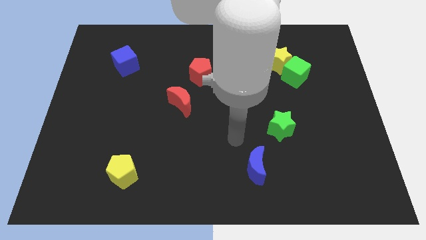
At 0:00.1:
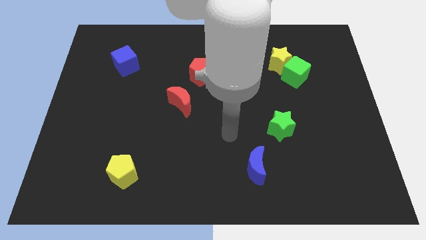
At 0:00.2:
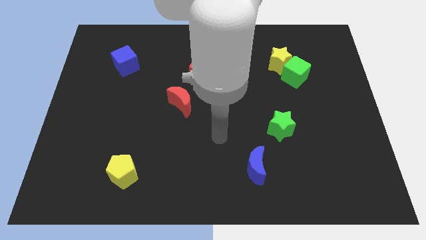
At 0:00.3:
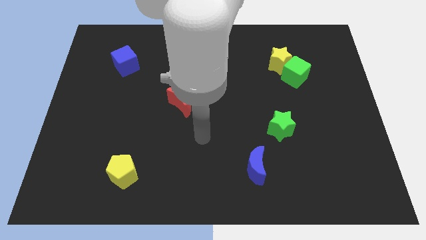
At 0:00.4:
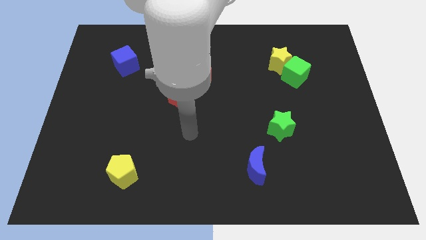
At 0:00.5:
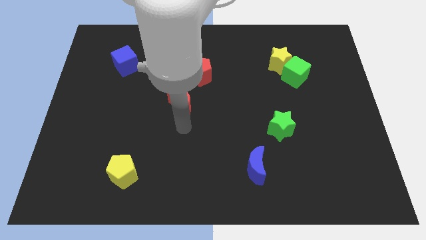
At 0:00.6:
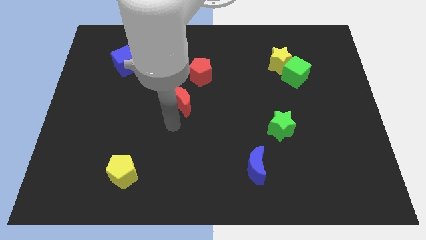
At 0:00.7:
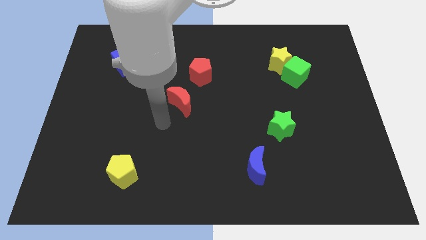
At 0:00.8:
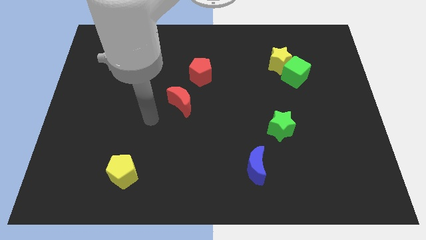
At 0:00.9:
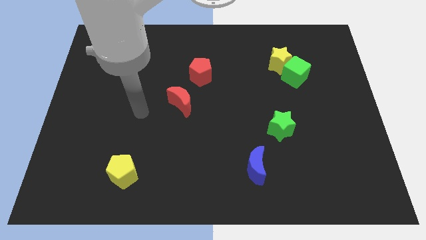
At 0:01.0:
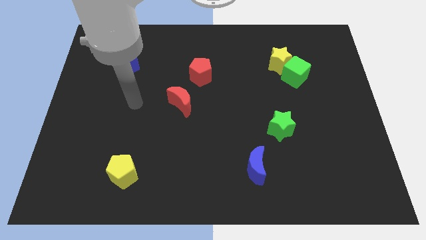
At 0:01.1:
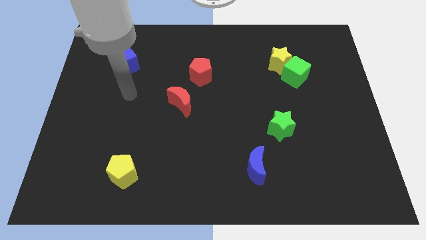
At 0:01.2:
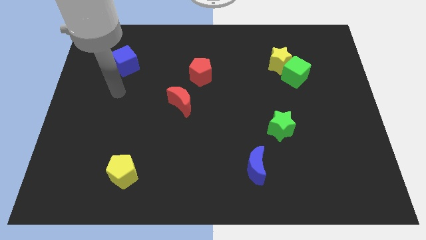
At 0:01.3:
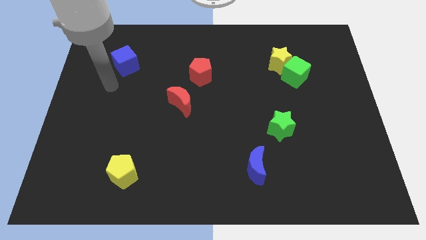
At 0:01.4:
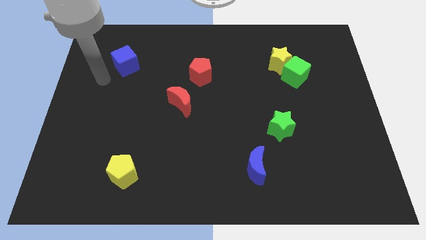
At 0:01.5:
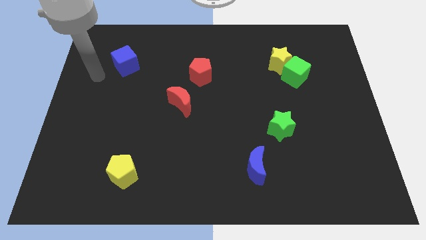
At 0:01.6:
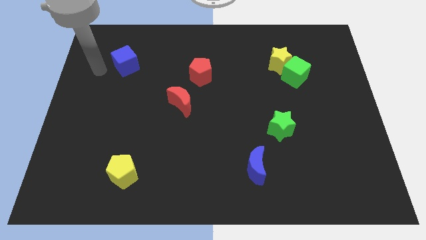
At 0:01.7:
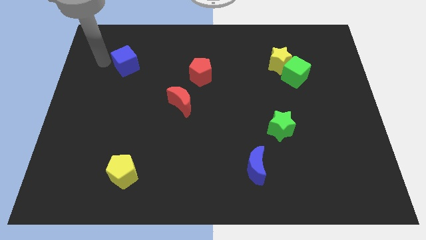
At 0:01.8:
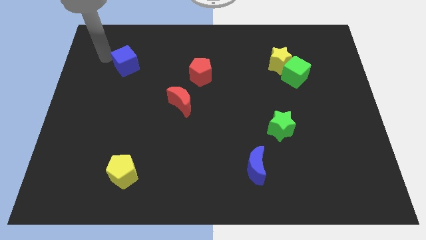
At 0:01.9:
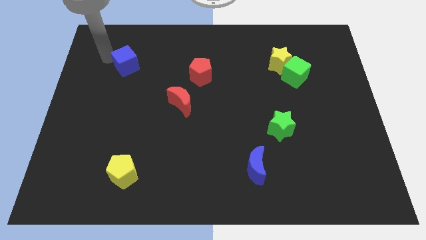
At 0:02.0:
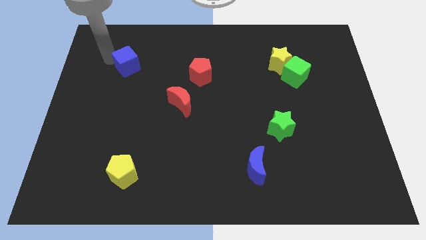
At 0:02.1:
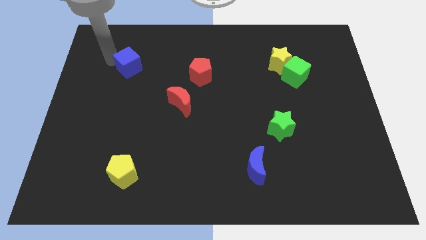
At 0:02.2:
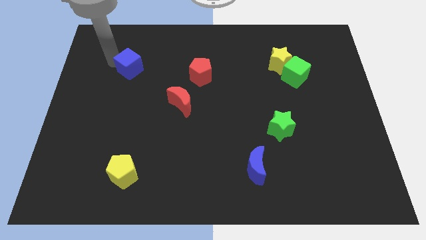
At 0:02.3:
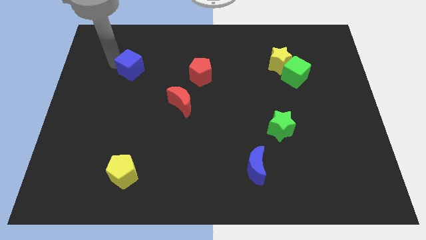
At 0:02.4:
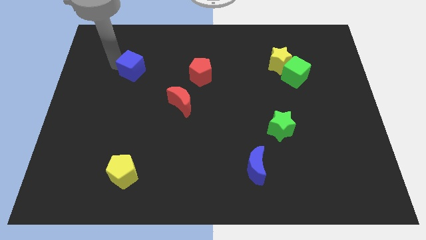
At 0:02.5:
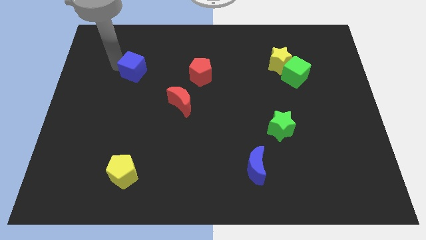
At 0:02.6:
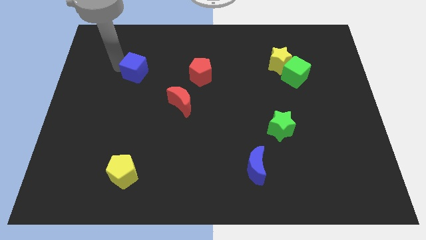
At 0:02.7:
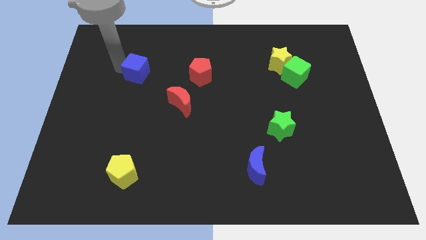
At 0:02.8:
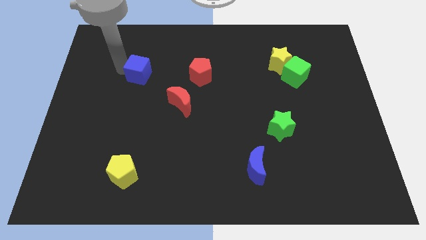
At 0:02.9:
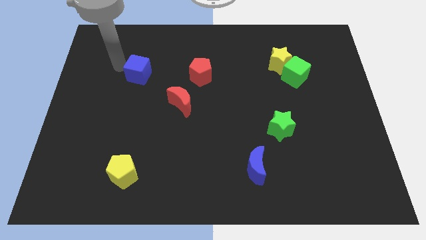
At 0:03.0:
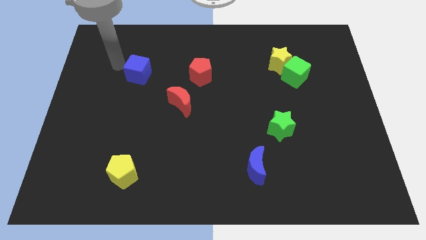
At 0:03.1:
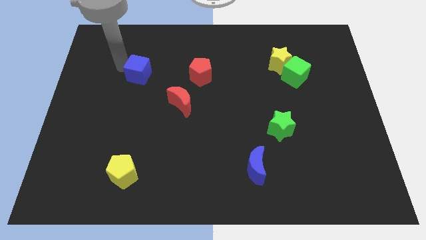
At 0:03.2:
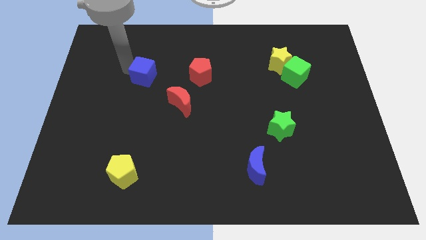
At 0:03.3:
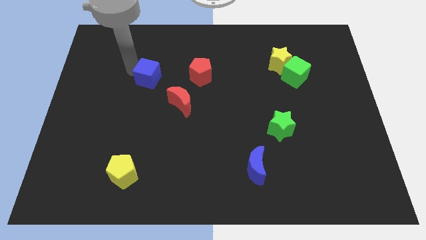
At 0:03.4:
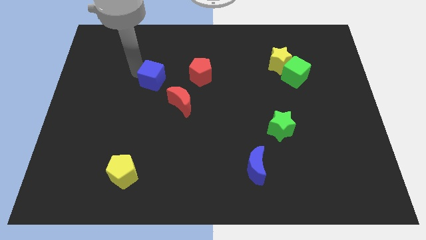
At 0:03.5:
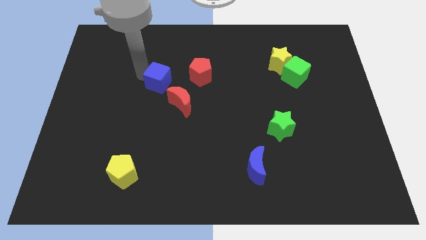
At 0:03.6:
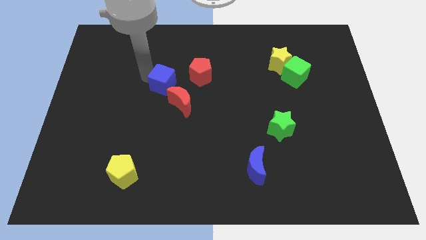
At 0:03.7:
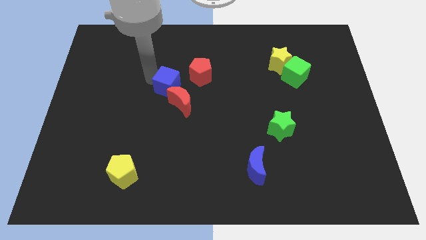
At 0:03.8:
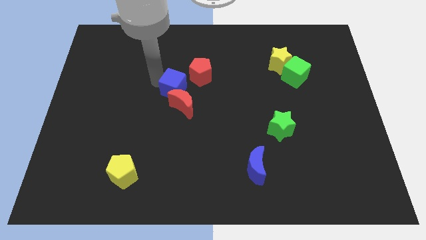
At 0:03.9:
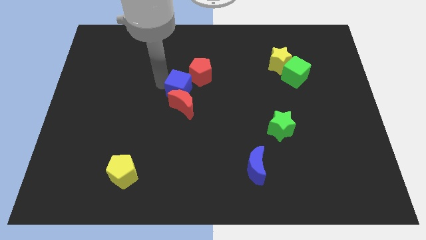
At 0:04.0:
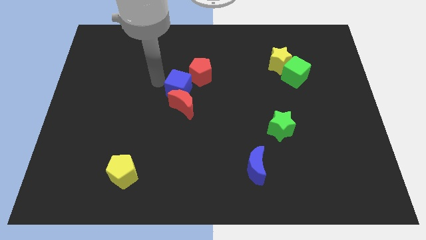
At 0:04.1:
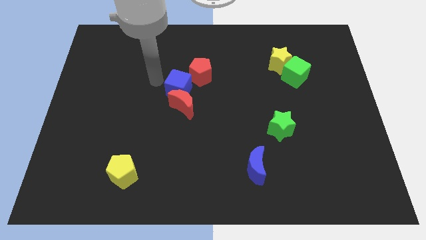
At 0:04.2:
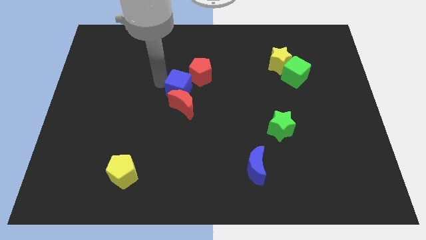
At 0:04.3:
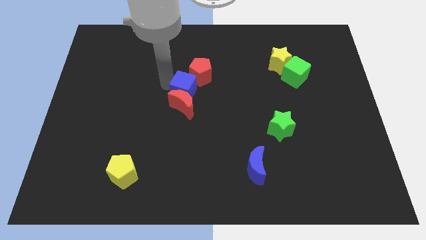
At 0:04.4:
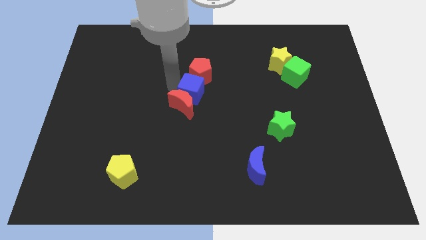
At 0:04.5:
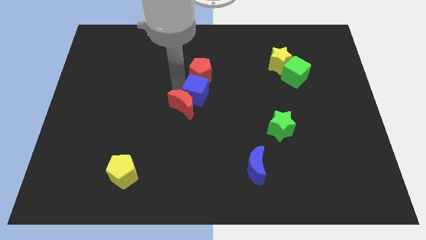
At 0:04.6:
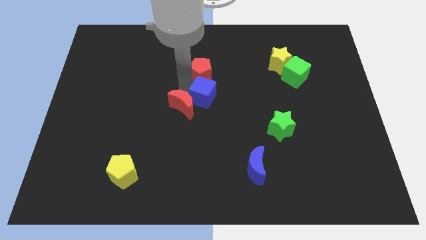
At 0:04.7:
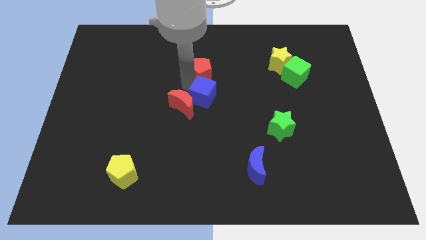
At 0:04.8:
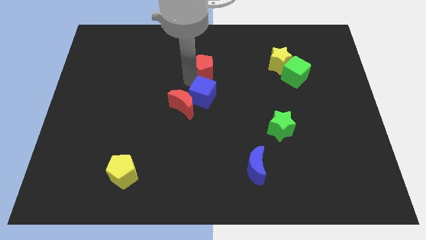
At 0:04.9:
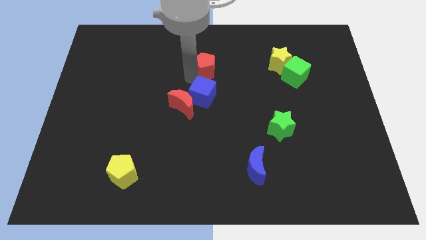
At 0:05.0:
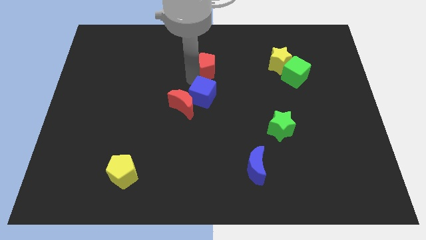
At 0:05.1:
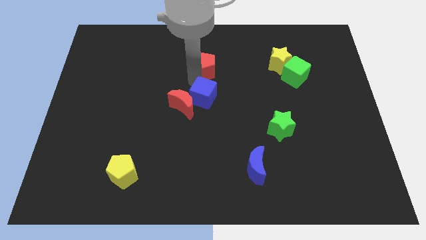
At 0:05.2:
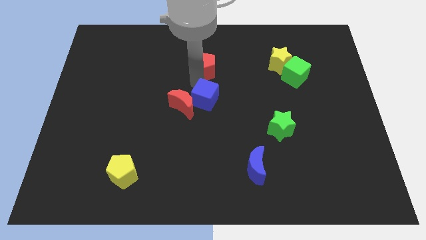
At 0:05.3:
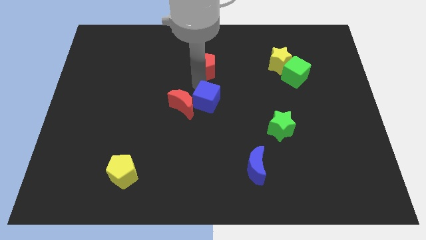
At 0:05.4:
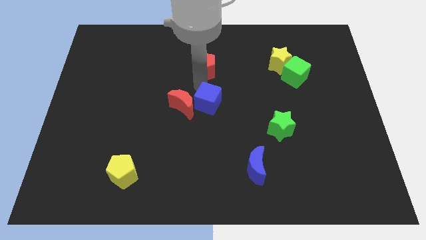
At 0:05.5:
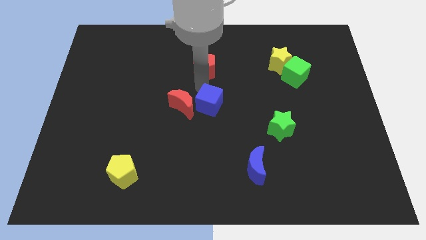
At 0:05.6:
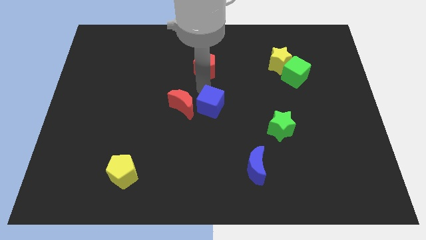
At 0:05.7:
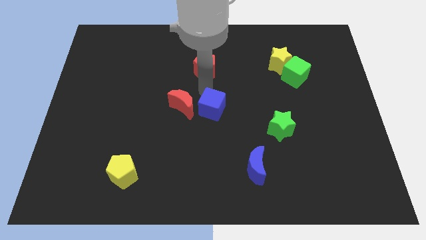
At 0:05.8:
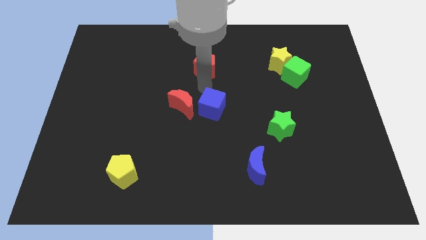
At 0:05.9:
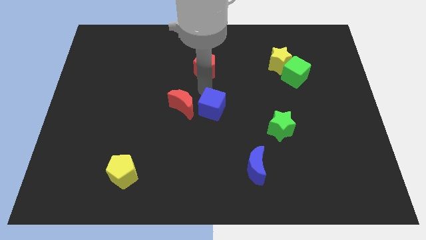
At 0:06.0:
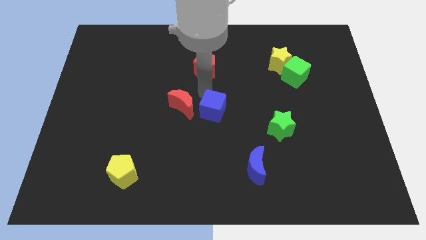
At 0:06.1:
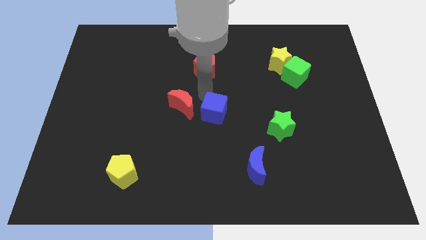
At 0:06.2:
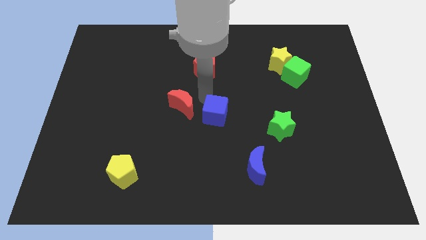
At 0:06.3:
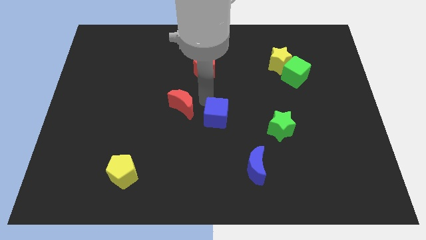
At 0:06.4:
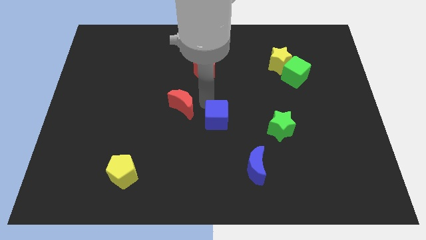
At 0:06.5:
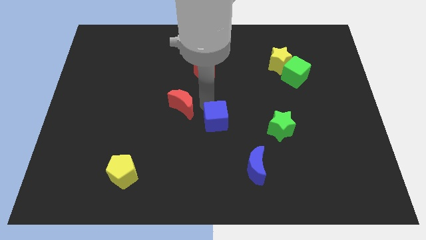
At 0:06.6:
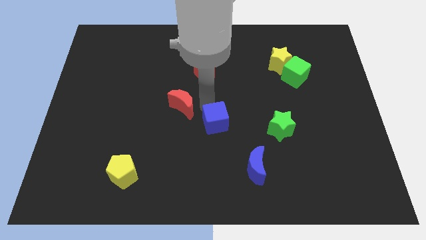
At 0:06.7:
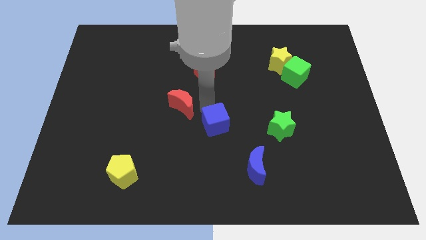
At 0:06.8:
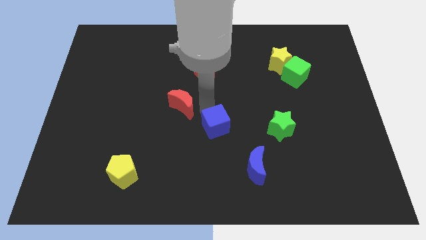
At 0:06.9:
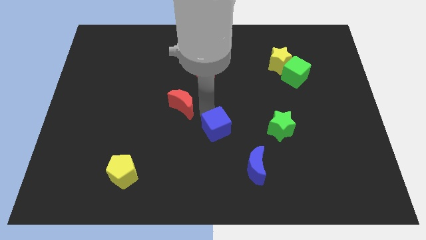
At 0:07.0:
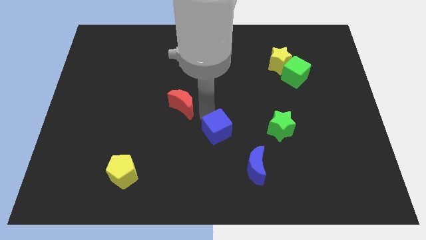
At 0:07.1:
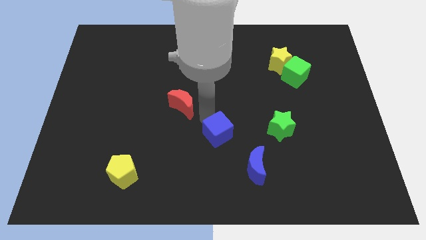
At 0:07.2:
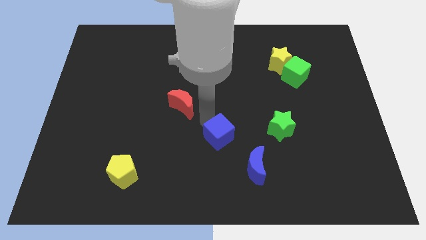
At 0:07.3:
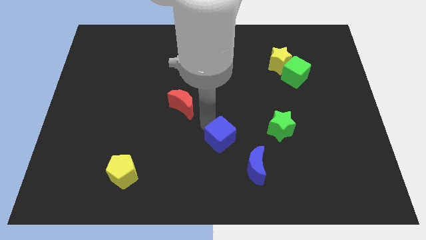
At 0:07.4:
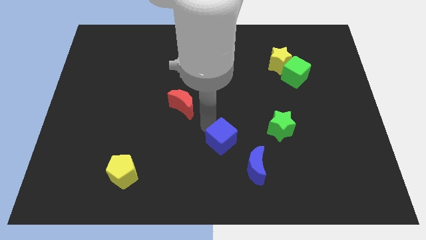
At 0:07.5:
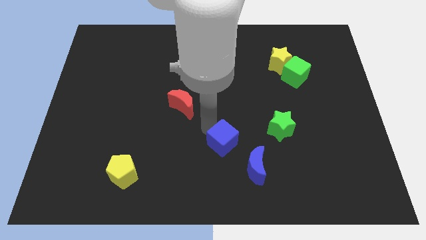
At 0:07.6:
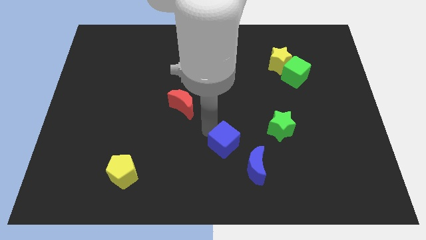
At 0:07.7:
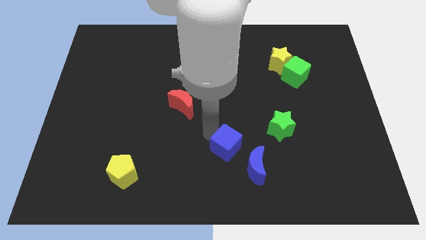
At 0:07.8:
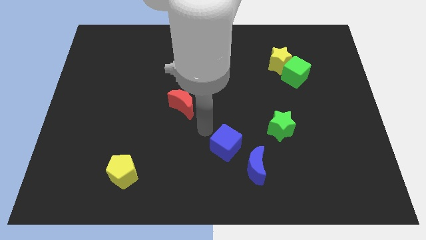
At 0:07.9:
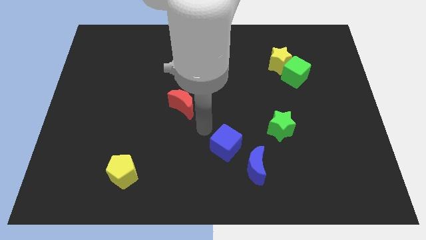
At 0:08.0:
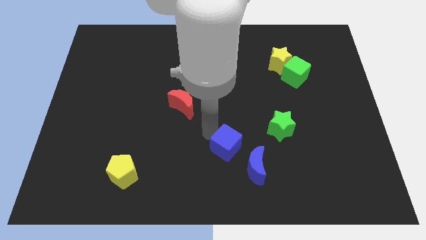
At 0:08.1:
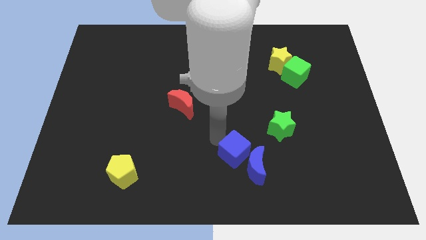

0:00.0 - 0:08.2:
push the blue cube close to the blue moon
